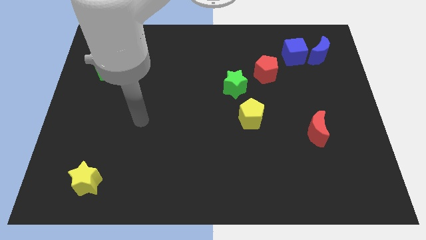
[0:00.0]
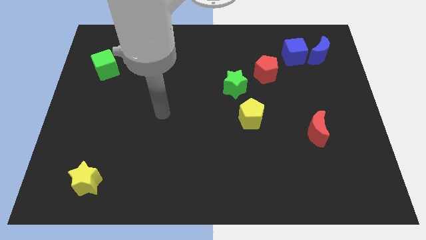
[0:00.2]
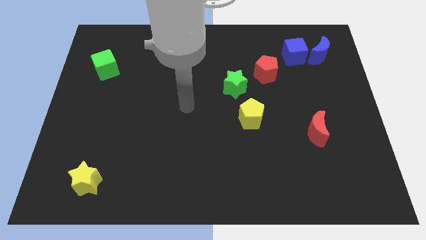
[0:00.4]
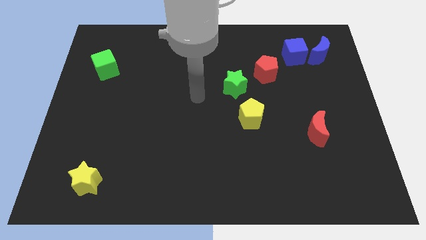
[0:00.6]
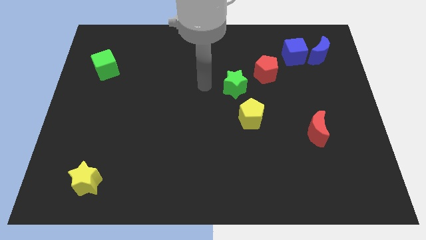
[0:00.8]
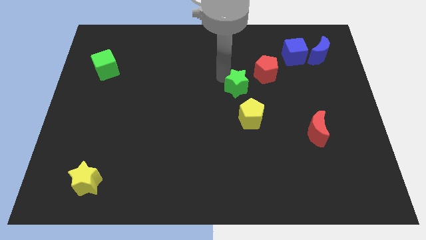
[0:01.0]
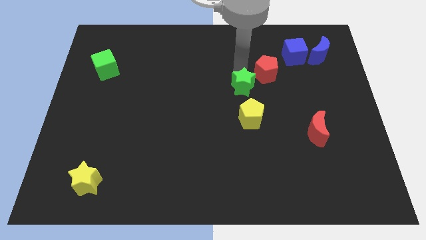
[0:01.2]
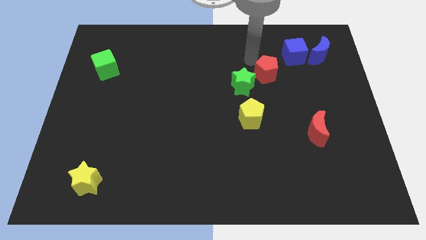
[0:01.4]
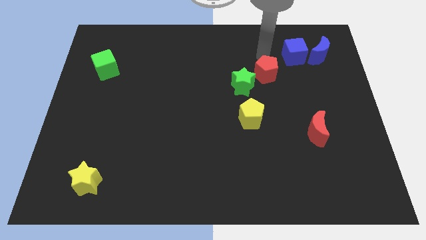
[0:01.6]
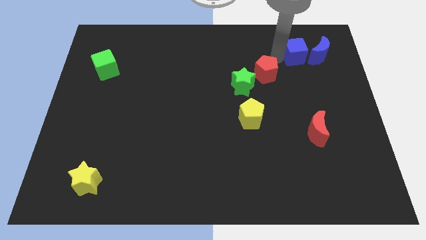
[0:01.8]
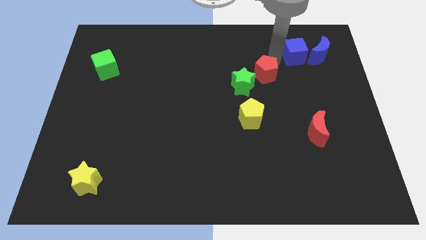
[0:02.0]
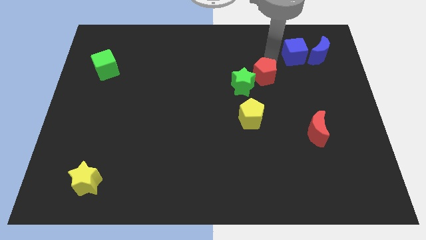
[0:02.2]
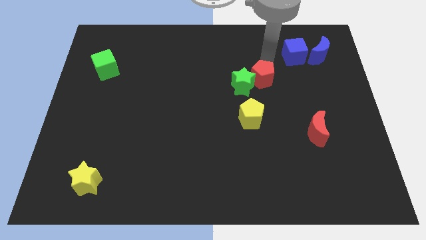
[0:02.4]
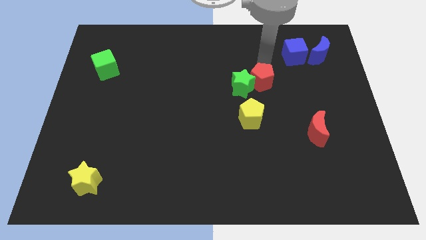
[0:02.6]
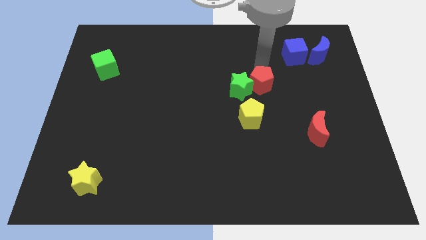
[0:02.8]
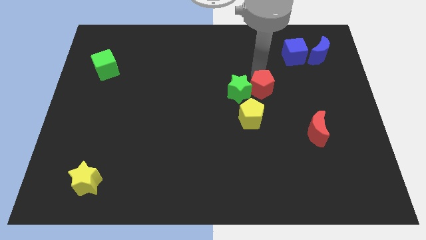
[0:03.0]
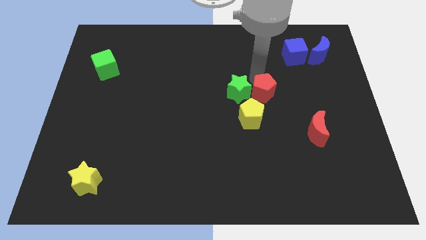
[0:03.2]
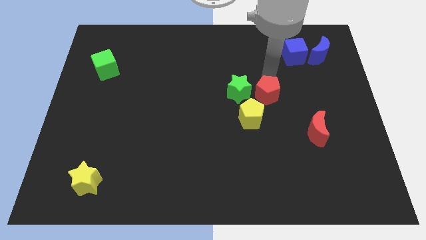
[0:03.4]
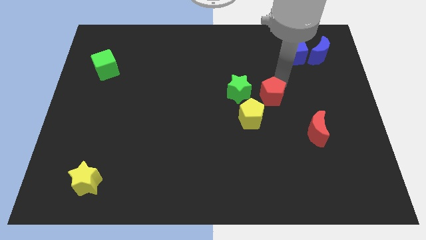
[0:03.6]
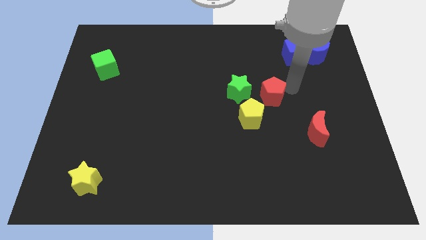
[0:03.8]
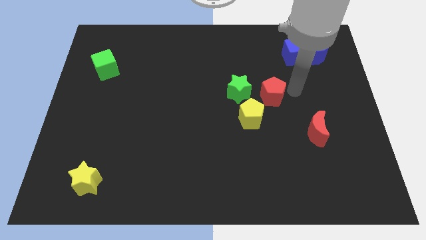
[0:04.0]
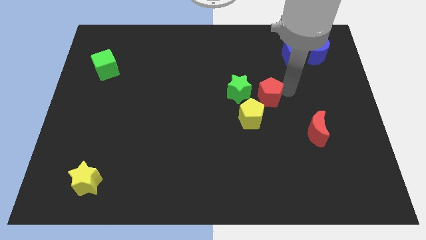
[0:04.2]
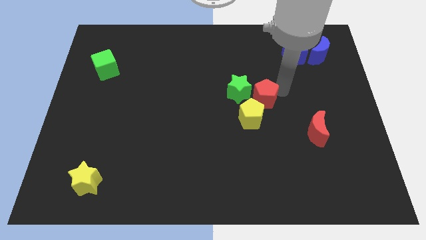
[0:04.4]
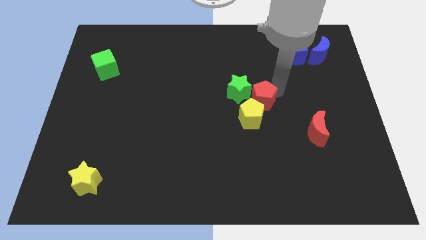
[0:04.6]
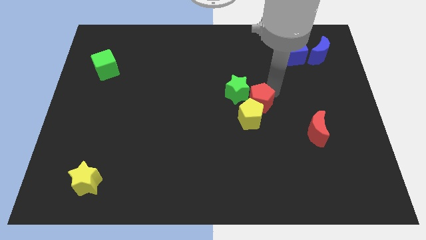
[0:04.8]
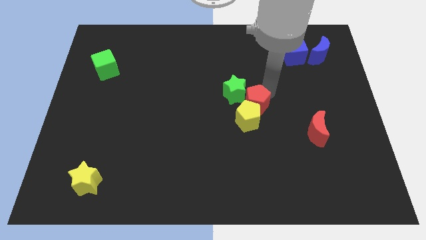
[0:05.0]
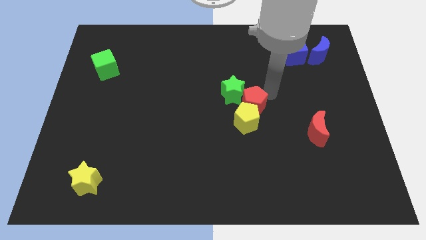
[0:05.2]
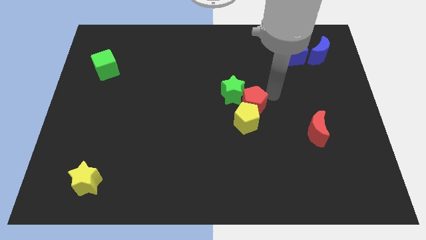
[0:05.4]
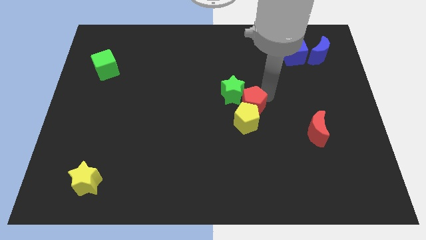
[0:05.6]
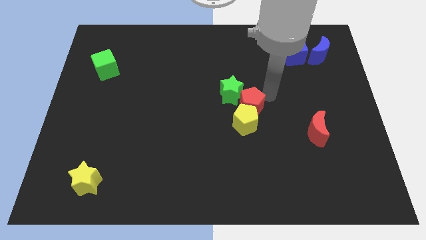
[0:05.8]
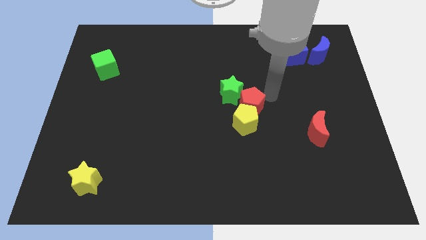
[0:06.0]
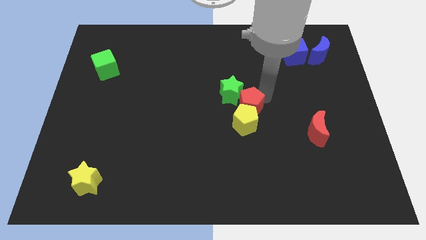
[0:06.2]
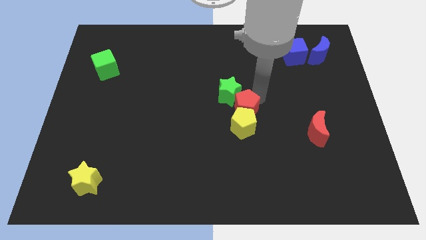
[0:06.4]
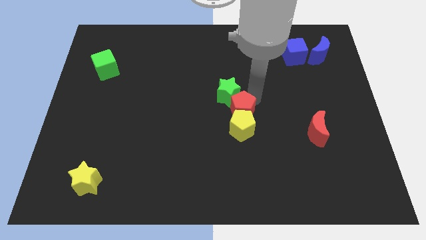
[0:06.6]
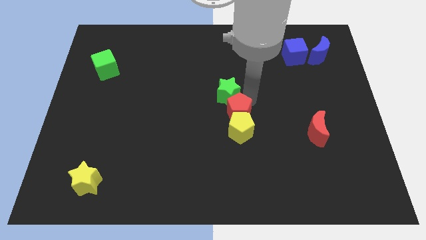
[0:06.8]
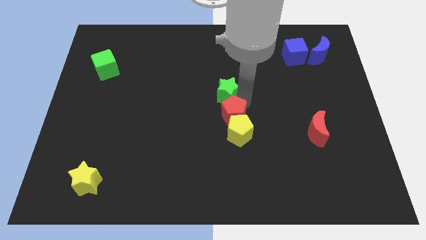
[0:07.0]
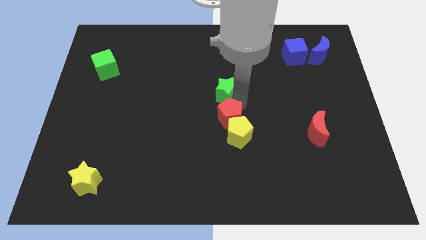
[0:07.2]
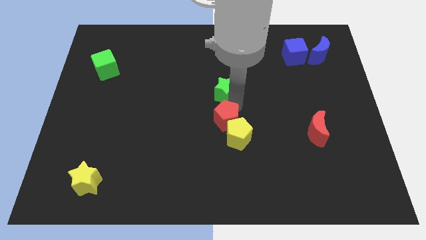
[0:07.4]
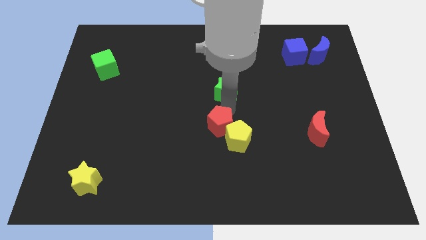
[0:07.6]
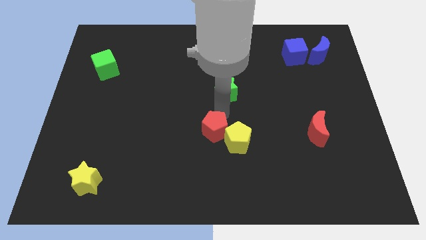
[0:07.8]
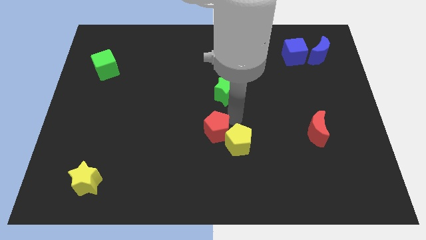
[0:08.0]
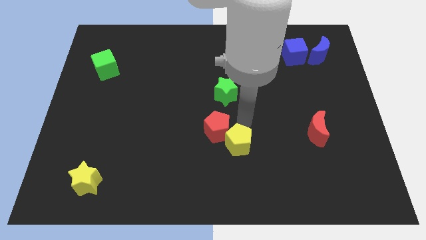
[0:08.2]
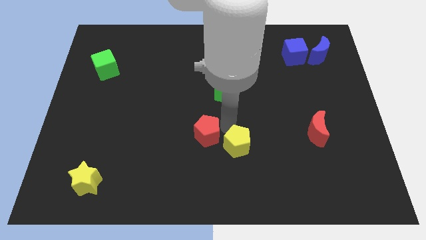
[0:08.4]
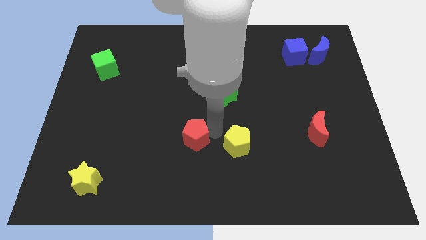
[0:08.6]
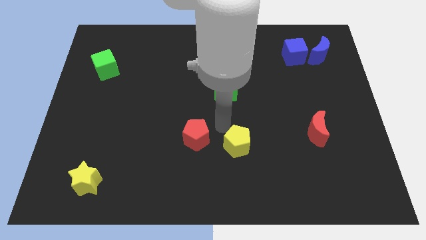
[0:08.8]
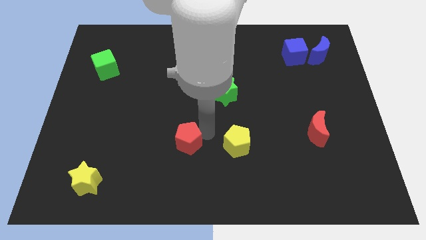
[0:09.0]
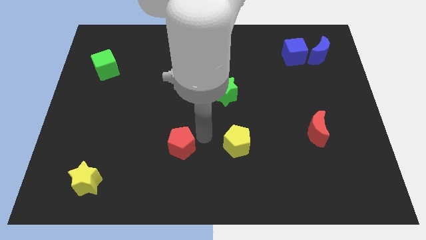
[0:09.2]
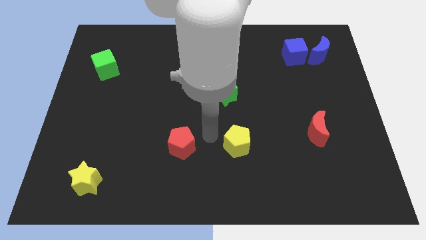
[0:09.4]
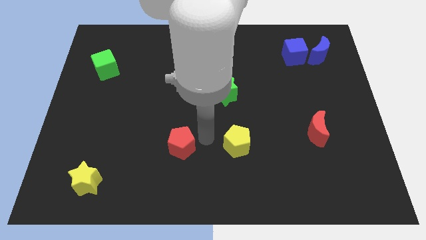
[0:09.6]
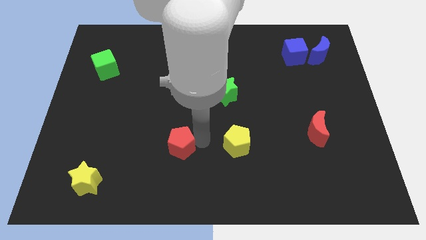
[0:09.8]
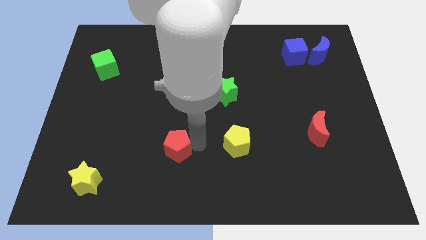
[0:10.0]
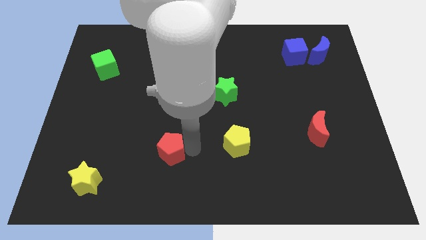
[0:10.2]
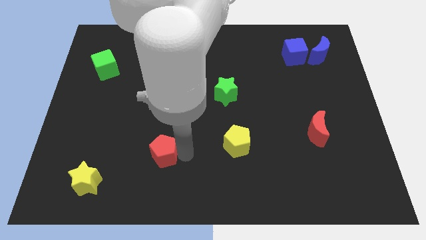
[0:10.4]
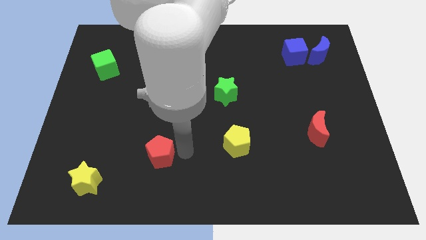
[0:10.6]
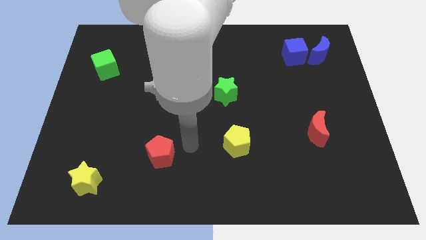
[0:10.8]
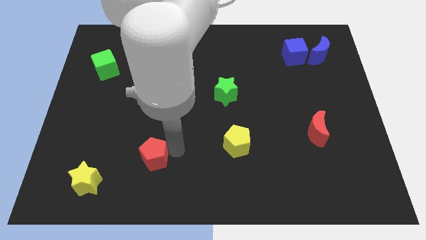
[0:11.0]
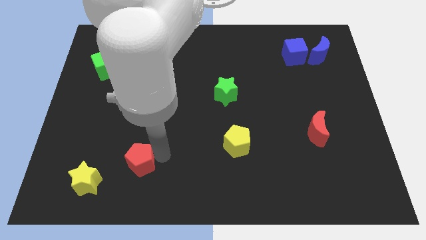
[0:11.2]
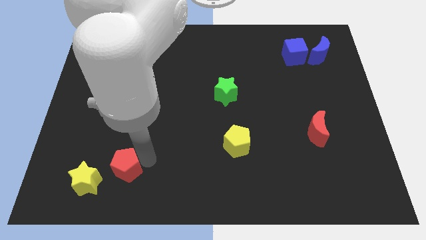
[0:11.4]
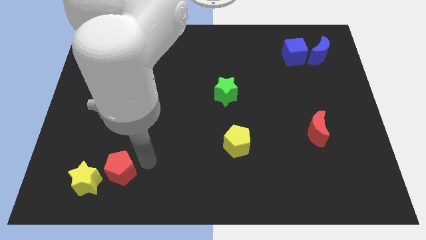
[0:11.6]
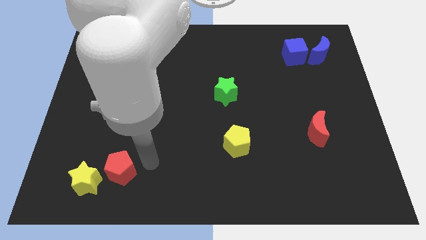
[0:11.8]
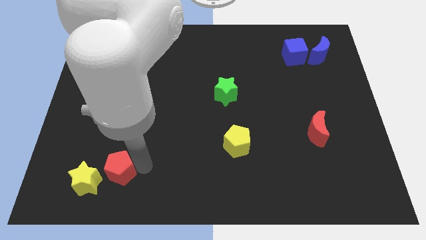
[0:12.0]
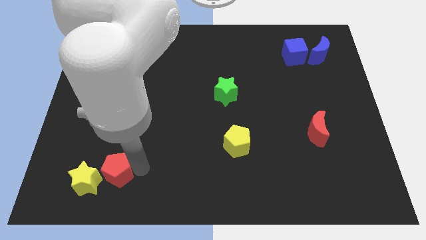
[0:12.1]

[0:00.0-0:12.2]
move the red pentagon towards the yellow star

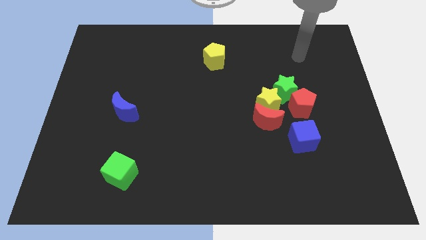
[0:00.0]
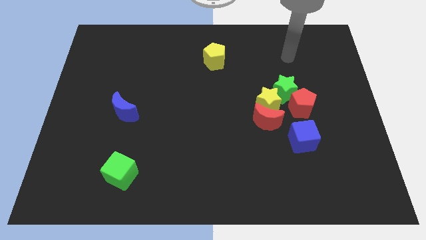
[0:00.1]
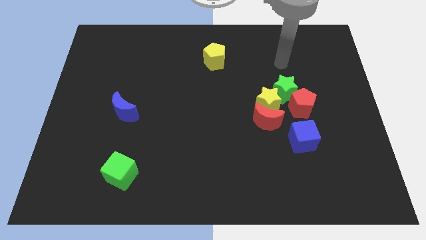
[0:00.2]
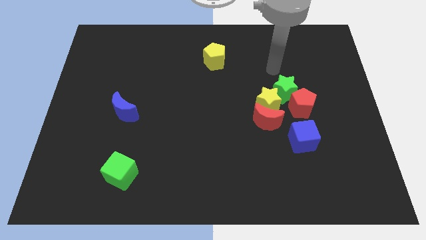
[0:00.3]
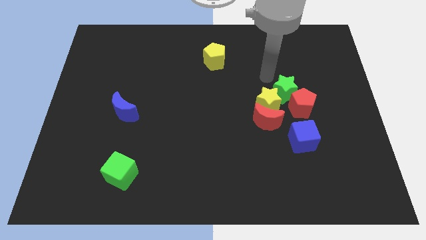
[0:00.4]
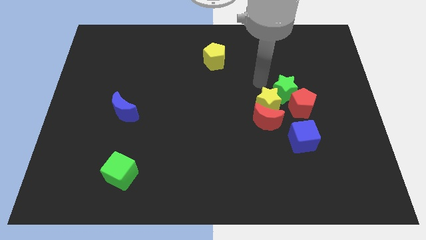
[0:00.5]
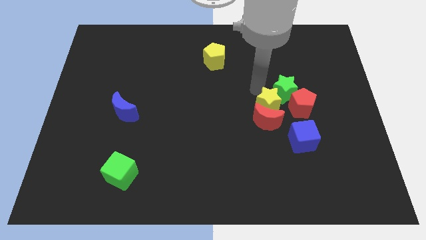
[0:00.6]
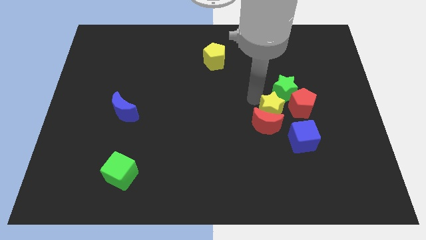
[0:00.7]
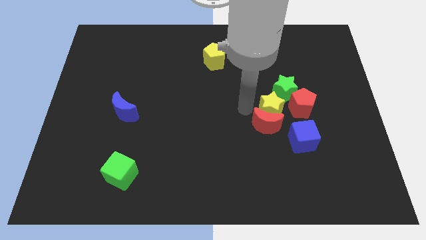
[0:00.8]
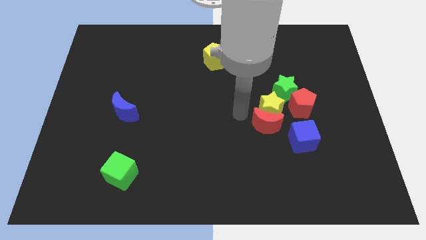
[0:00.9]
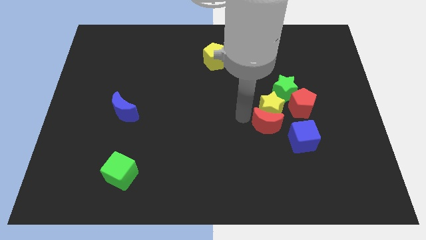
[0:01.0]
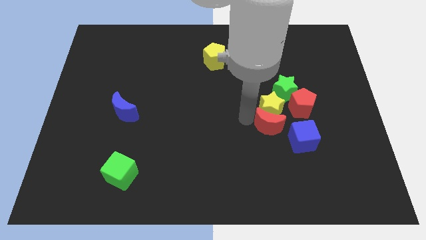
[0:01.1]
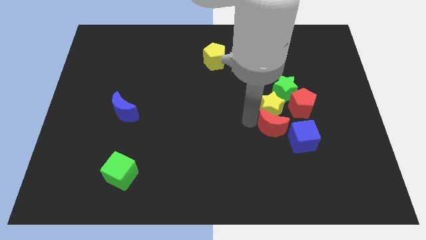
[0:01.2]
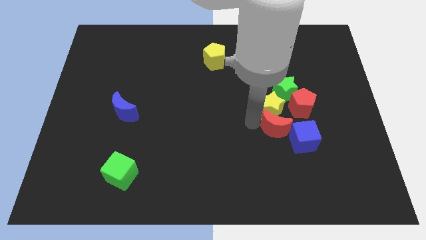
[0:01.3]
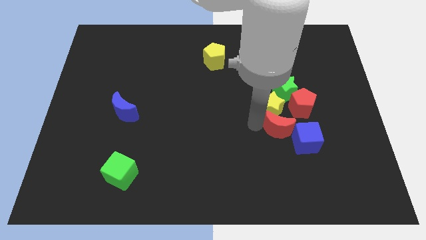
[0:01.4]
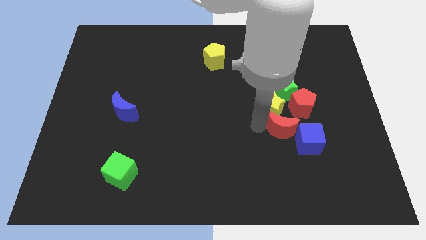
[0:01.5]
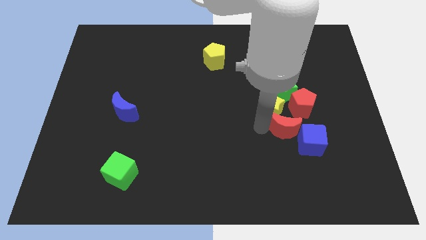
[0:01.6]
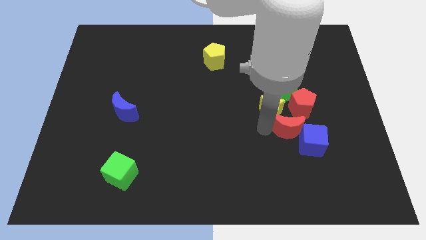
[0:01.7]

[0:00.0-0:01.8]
put the red moon to the blue cube
